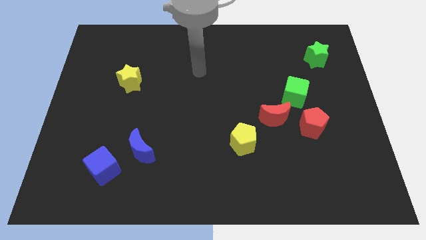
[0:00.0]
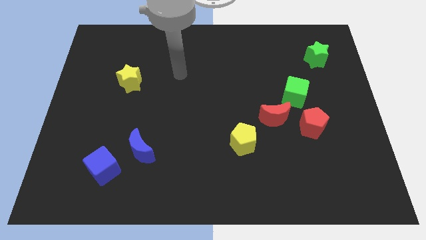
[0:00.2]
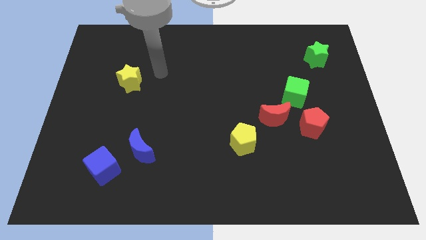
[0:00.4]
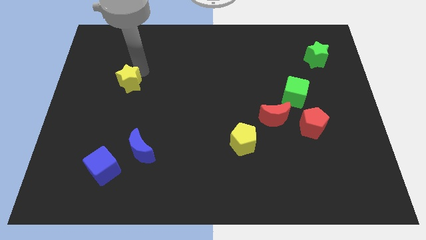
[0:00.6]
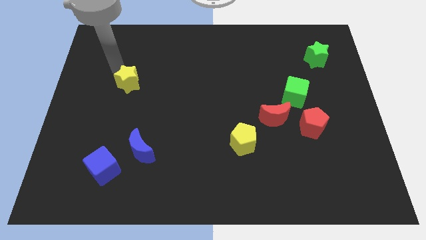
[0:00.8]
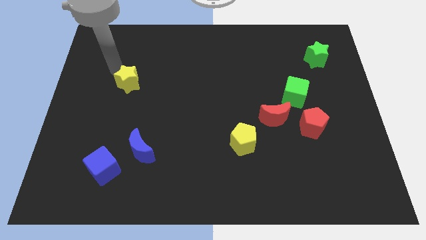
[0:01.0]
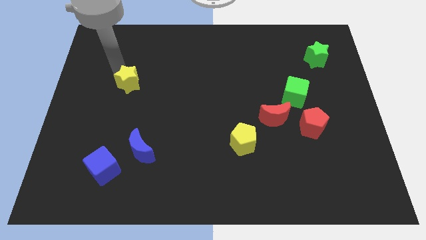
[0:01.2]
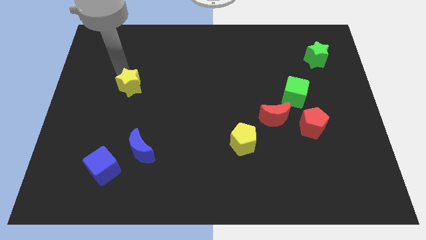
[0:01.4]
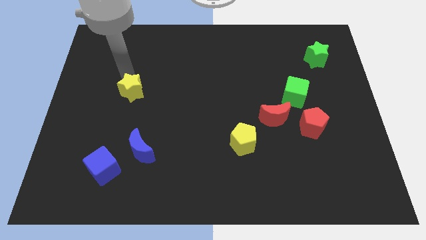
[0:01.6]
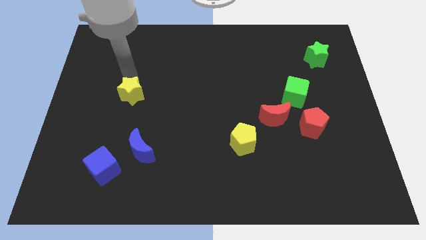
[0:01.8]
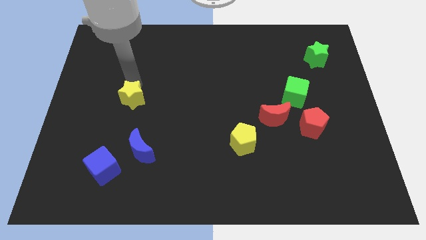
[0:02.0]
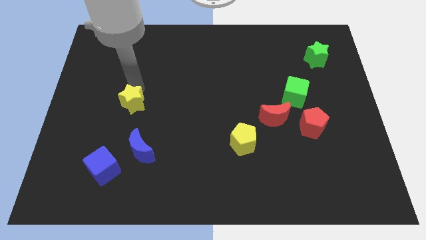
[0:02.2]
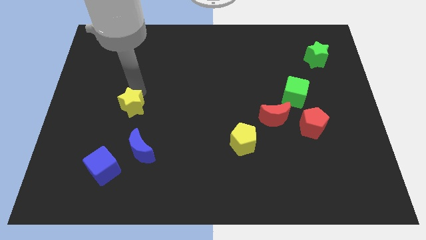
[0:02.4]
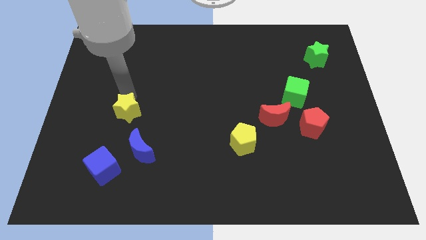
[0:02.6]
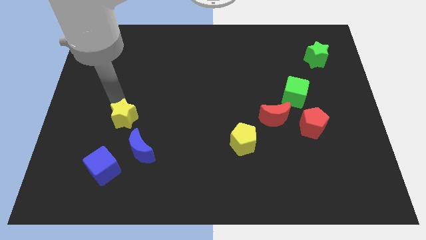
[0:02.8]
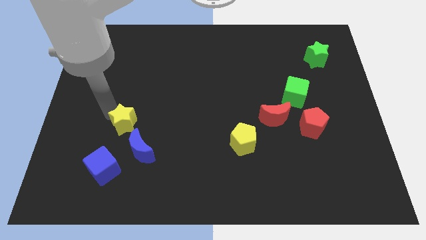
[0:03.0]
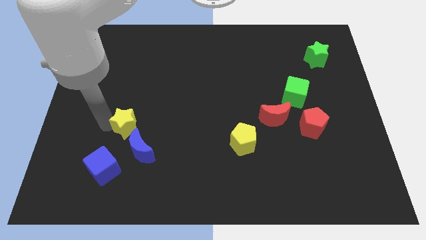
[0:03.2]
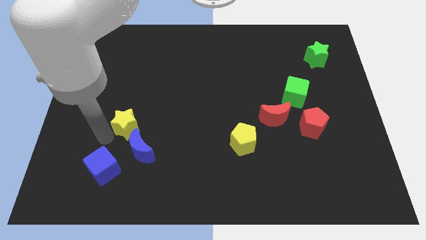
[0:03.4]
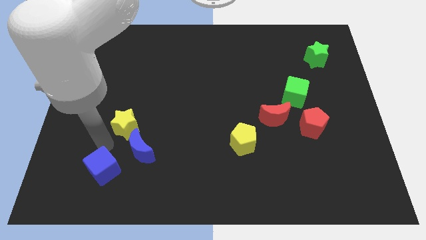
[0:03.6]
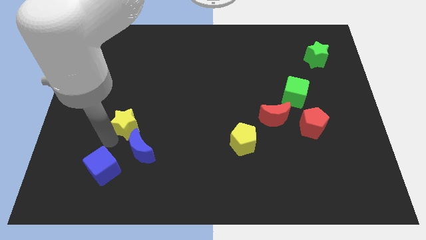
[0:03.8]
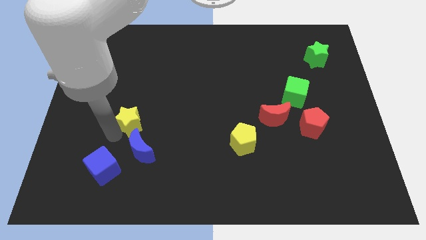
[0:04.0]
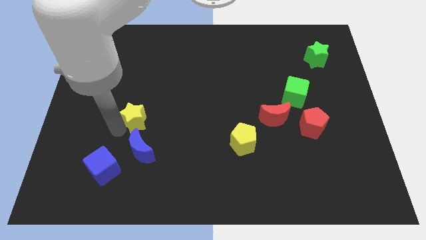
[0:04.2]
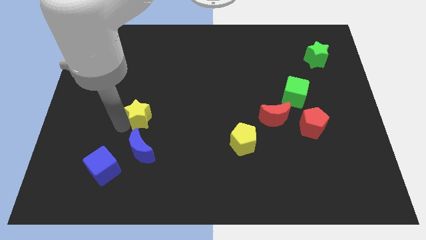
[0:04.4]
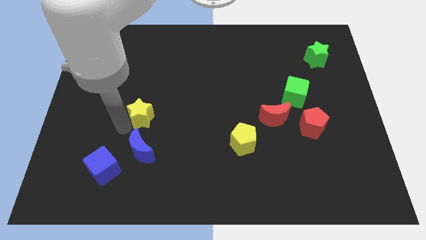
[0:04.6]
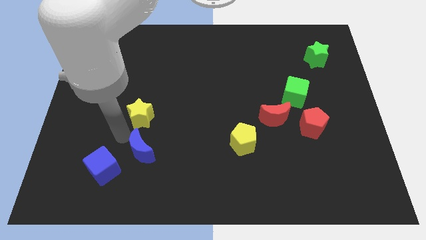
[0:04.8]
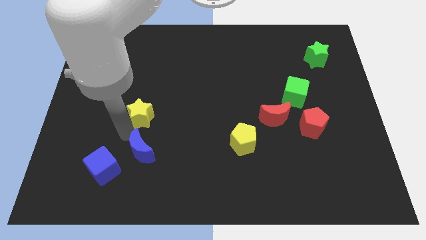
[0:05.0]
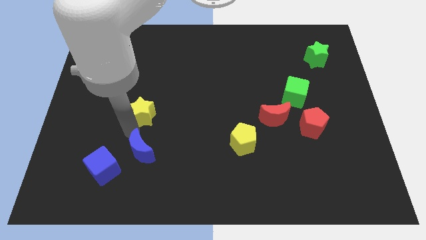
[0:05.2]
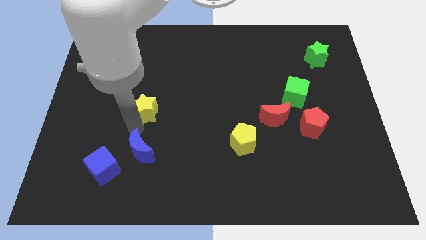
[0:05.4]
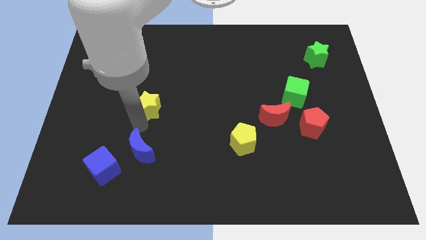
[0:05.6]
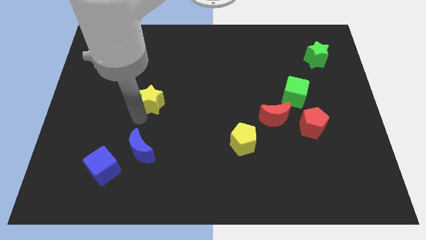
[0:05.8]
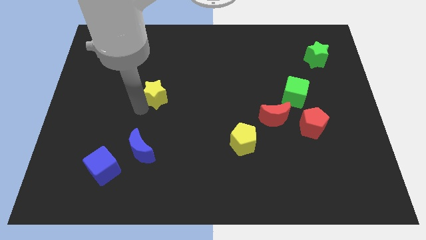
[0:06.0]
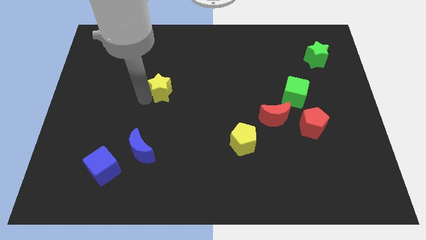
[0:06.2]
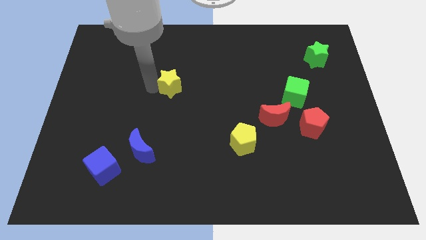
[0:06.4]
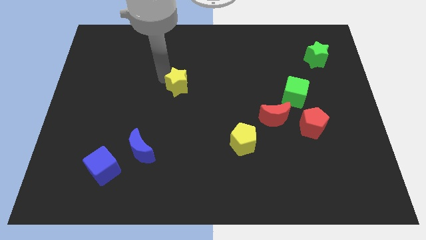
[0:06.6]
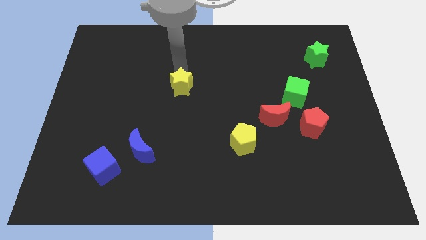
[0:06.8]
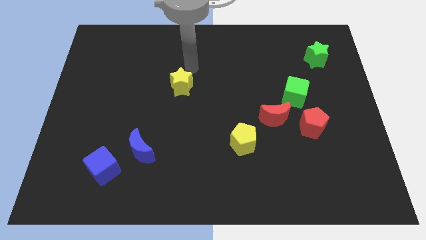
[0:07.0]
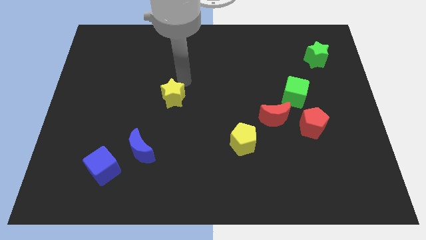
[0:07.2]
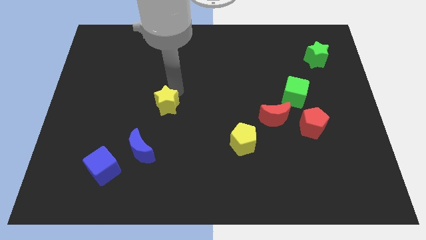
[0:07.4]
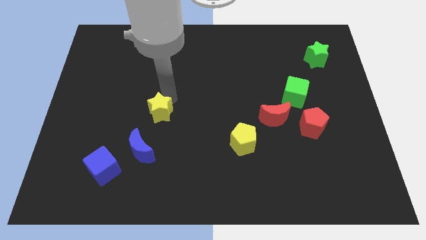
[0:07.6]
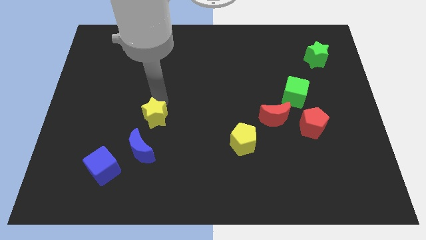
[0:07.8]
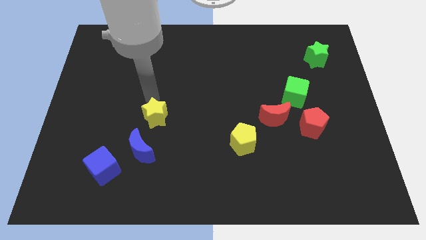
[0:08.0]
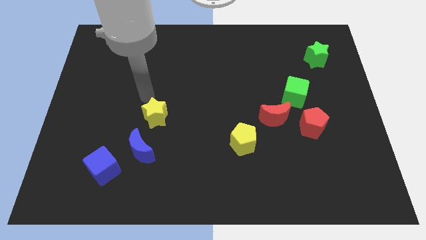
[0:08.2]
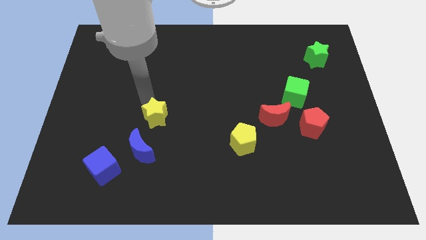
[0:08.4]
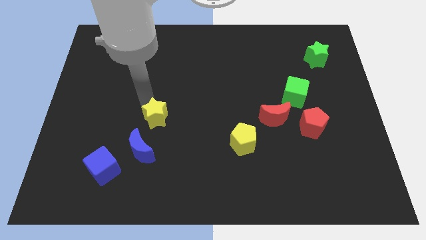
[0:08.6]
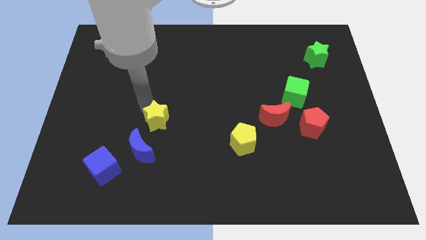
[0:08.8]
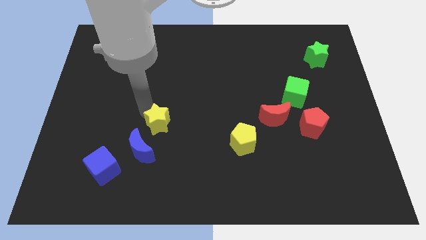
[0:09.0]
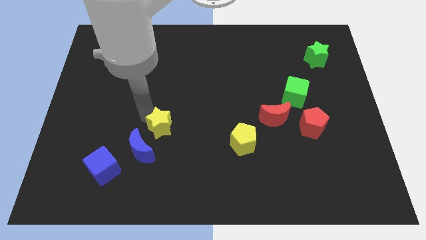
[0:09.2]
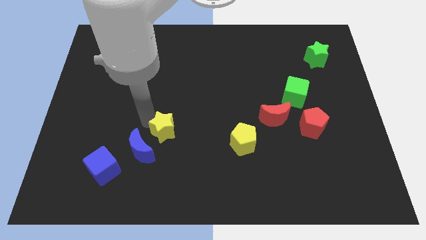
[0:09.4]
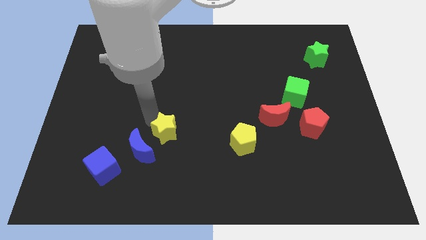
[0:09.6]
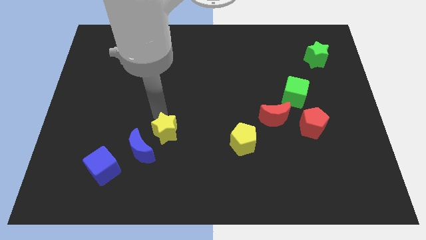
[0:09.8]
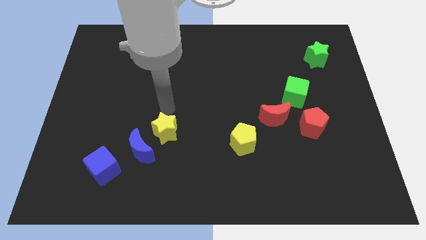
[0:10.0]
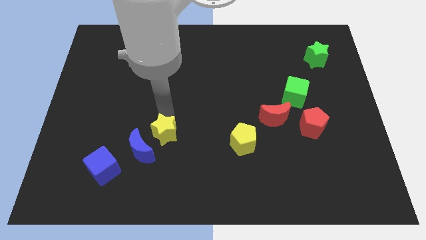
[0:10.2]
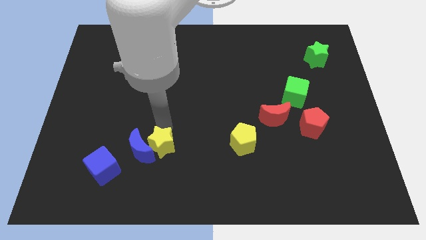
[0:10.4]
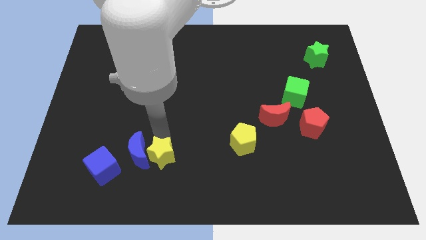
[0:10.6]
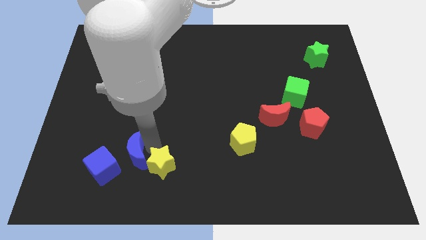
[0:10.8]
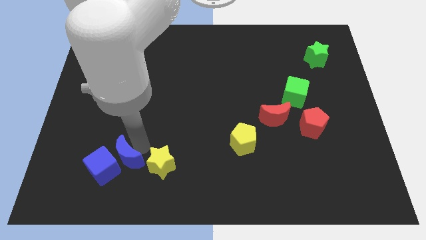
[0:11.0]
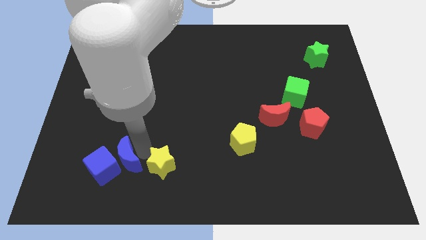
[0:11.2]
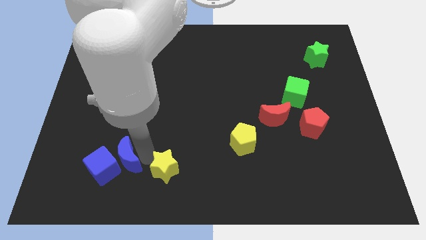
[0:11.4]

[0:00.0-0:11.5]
move the yellow star to the bottom

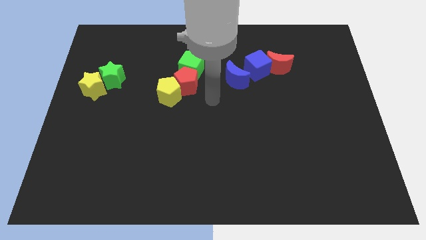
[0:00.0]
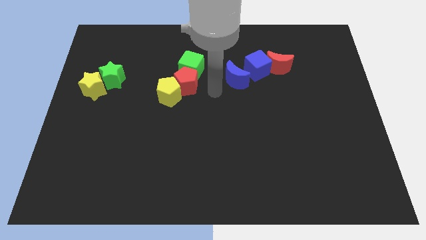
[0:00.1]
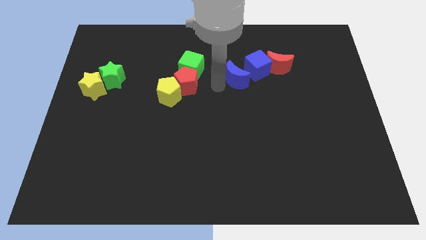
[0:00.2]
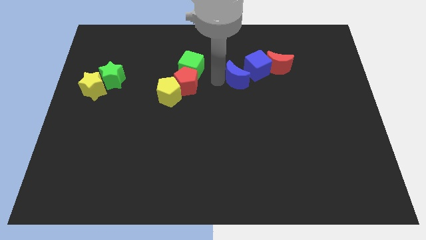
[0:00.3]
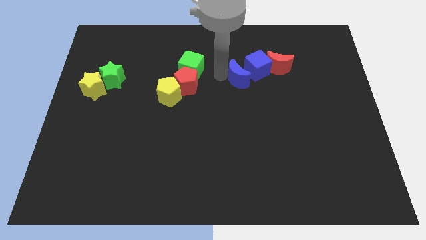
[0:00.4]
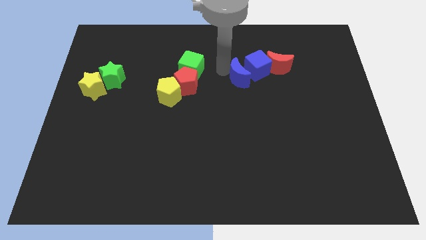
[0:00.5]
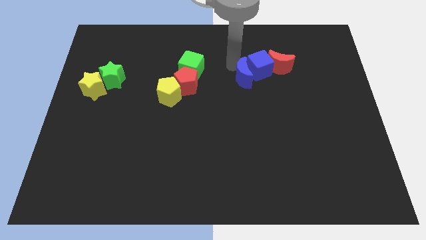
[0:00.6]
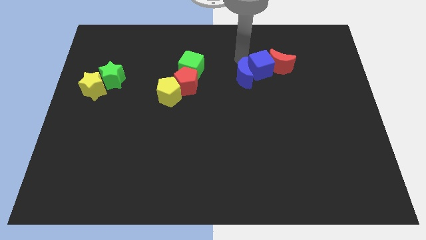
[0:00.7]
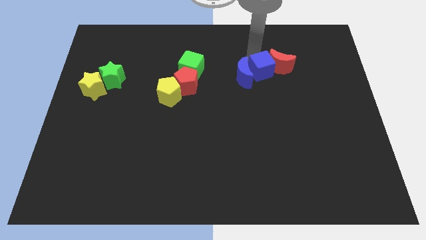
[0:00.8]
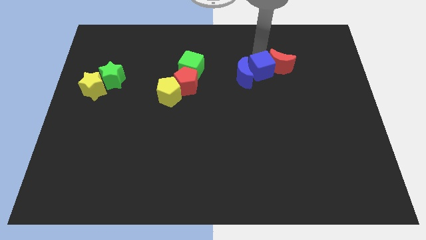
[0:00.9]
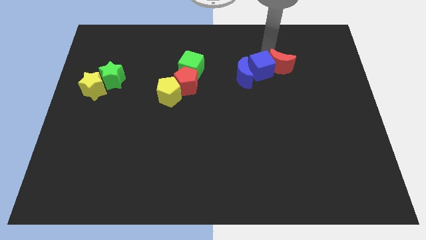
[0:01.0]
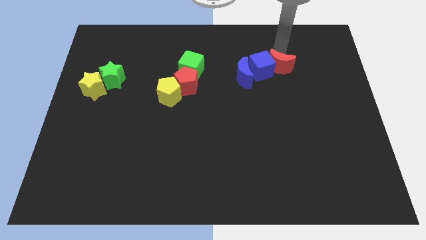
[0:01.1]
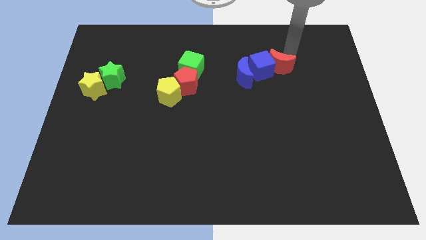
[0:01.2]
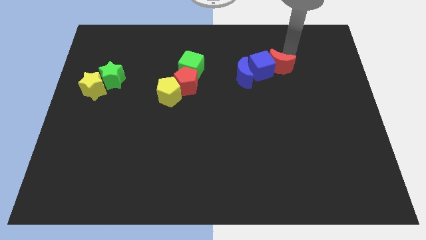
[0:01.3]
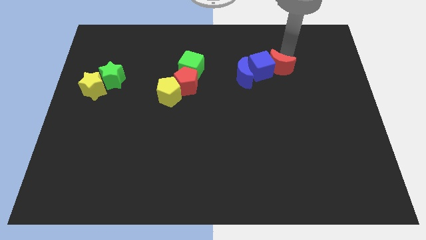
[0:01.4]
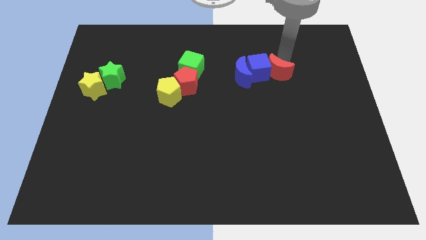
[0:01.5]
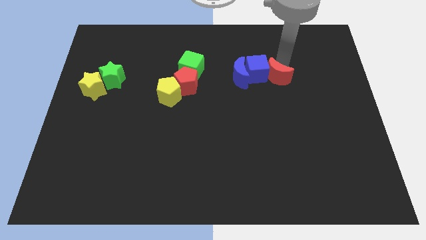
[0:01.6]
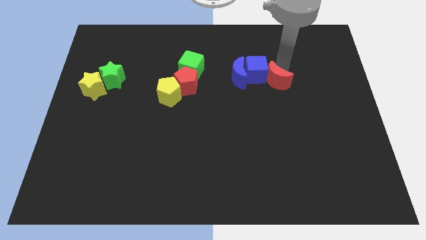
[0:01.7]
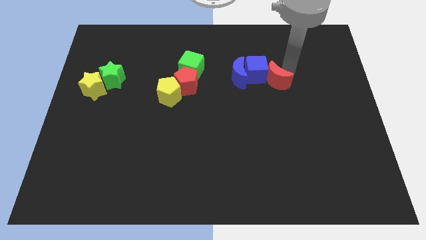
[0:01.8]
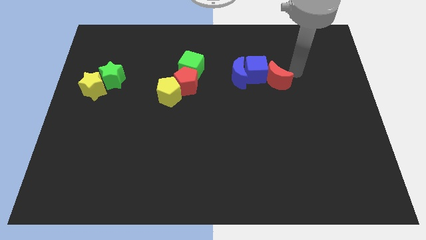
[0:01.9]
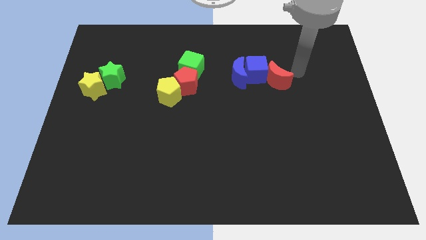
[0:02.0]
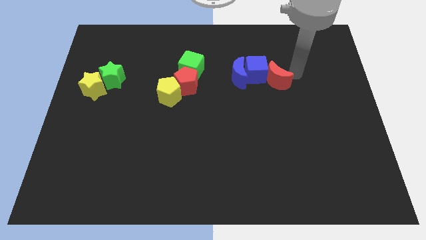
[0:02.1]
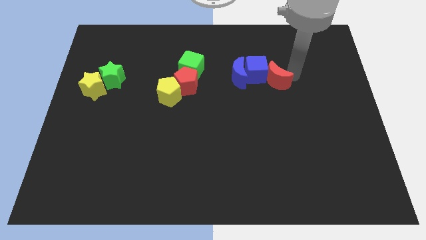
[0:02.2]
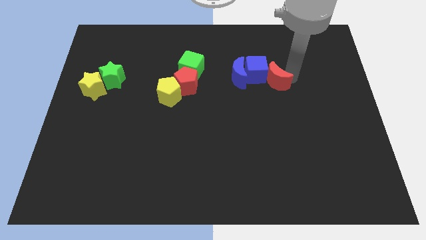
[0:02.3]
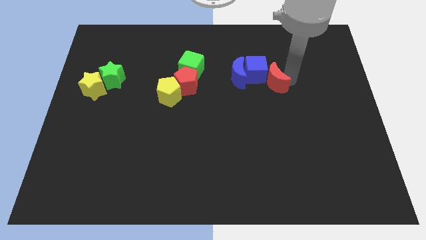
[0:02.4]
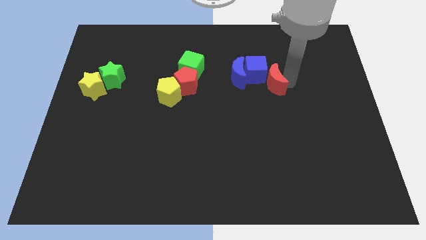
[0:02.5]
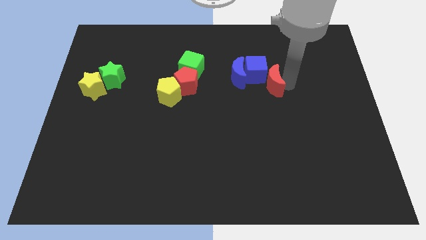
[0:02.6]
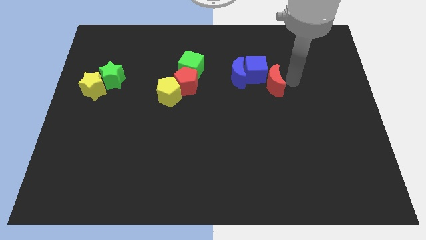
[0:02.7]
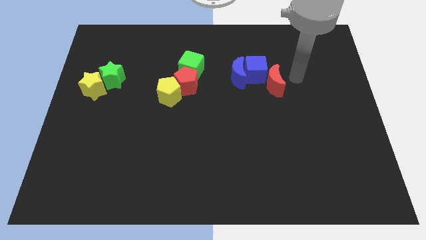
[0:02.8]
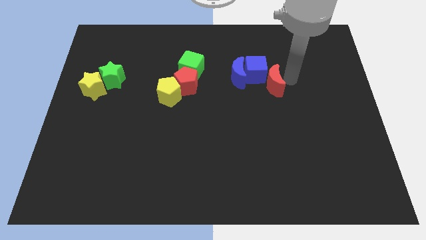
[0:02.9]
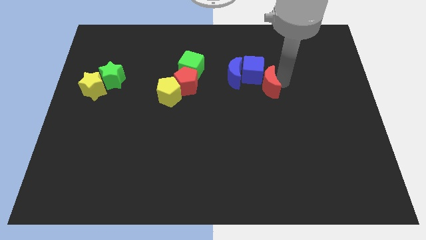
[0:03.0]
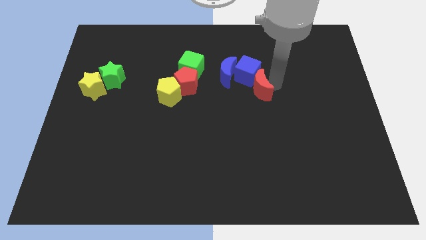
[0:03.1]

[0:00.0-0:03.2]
put the red moon to the middle
